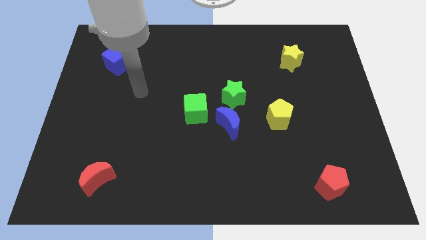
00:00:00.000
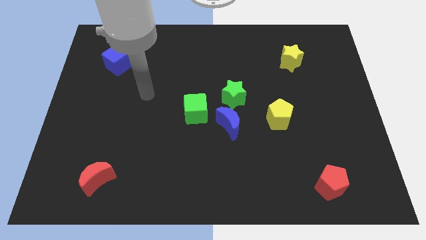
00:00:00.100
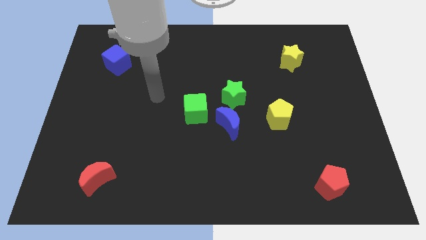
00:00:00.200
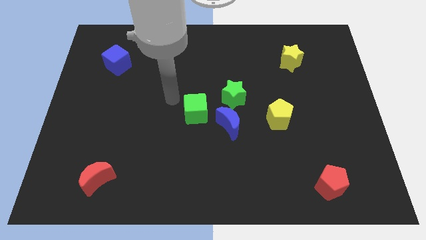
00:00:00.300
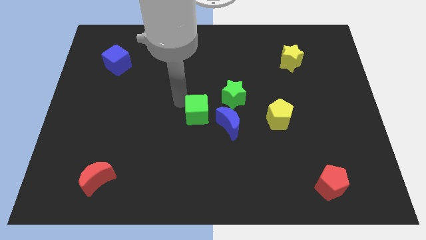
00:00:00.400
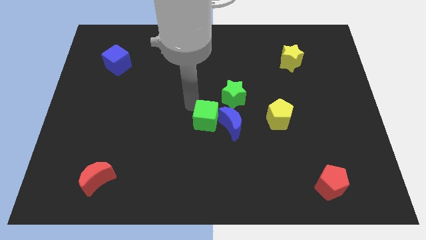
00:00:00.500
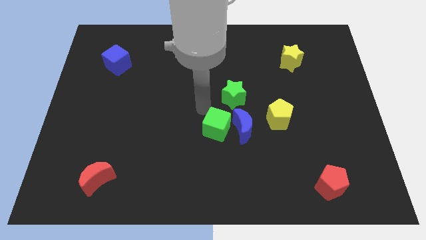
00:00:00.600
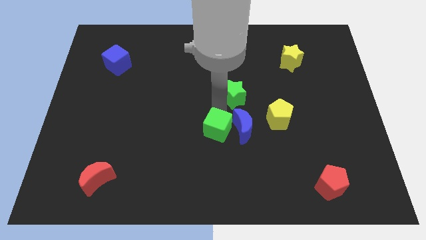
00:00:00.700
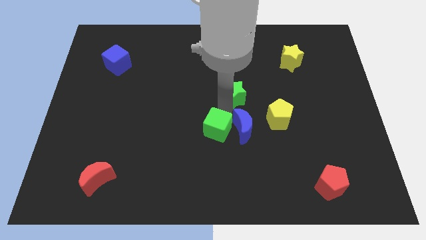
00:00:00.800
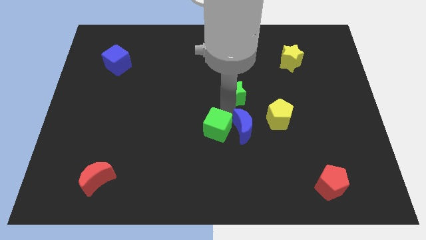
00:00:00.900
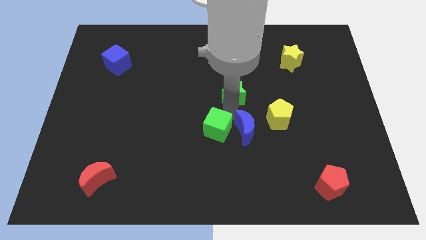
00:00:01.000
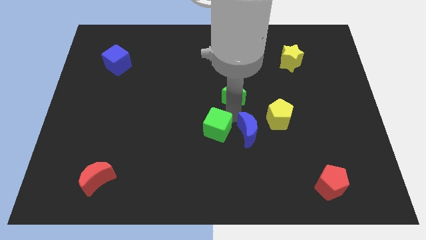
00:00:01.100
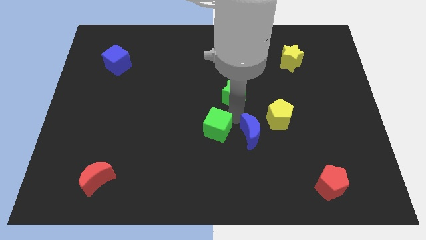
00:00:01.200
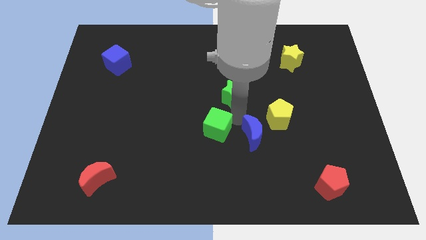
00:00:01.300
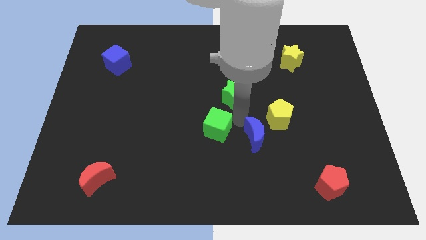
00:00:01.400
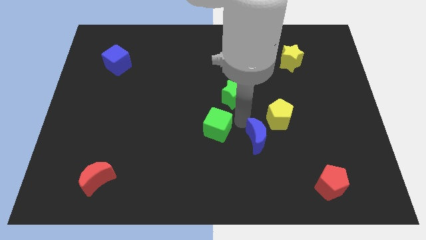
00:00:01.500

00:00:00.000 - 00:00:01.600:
pull the blue moon apart from the green star and green cube

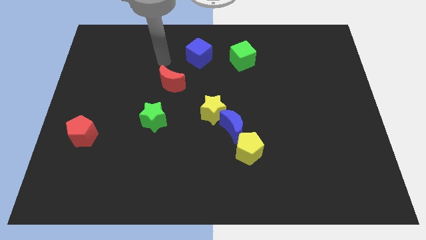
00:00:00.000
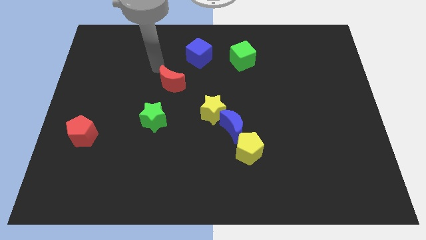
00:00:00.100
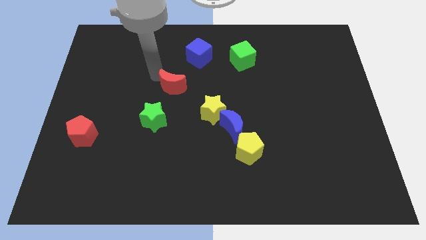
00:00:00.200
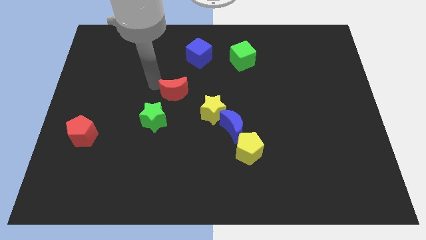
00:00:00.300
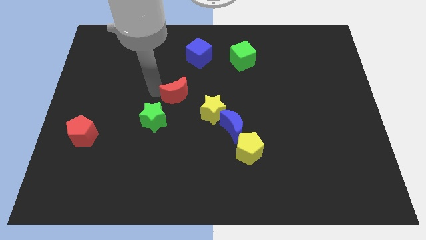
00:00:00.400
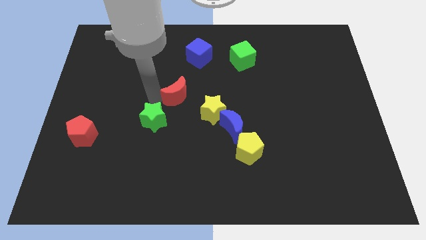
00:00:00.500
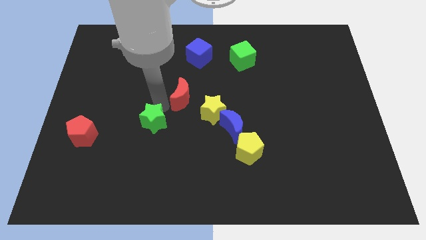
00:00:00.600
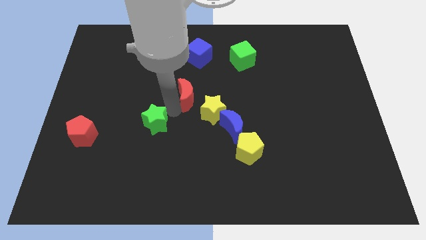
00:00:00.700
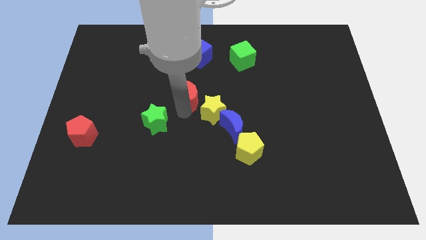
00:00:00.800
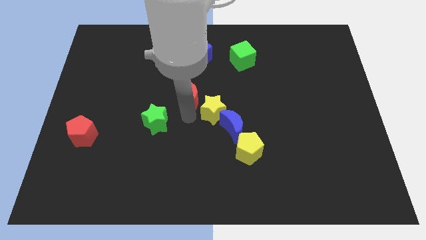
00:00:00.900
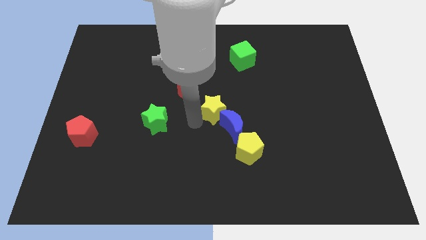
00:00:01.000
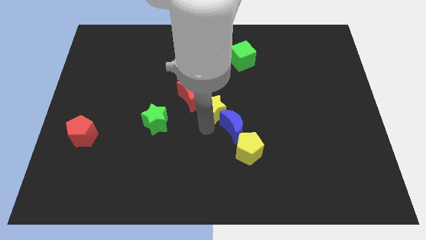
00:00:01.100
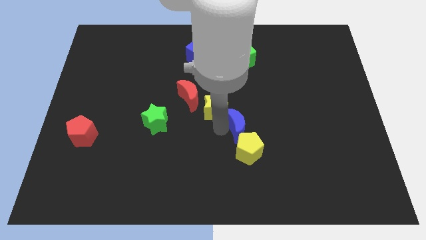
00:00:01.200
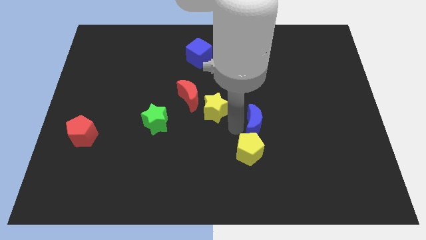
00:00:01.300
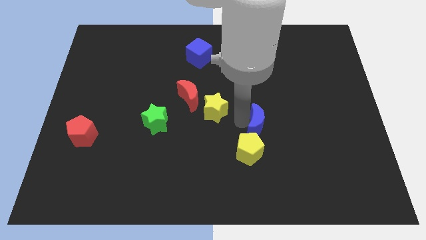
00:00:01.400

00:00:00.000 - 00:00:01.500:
move the yellow star away from the blue moon

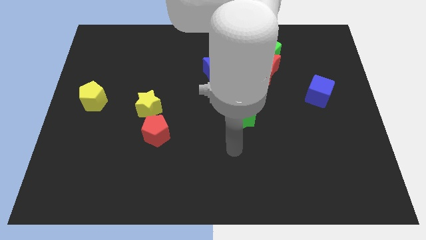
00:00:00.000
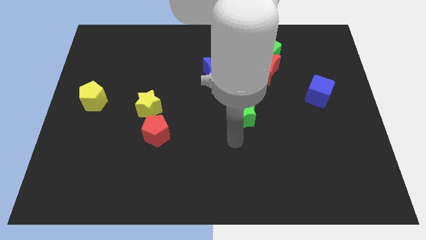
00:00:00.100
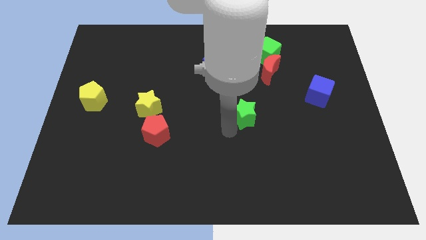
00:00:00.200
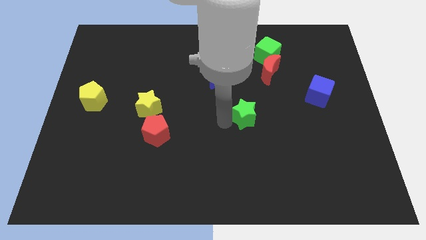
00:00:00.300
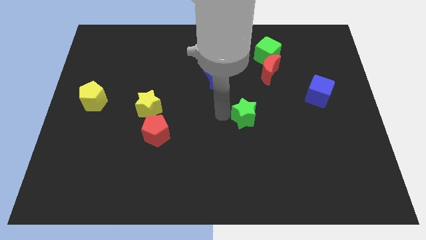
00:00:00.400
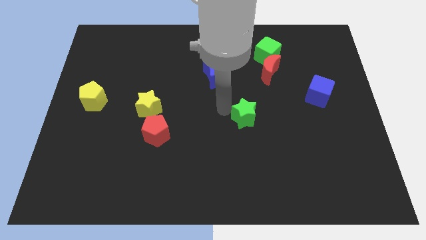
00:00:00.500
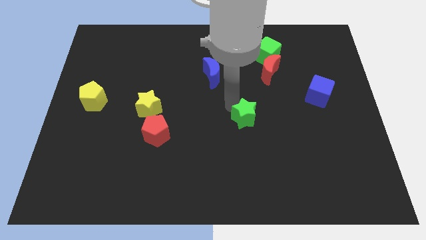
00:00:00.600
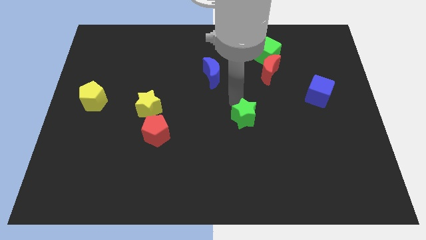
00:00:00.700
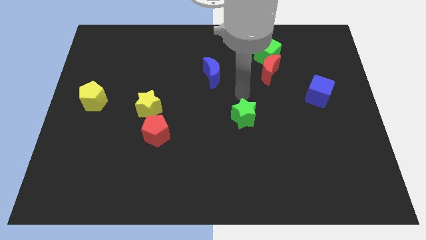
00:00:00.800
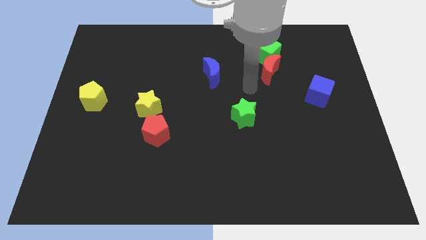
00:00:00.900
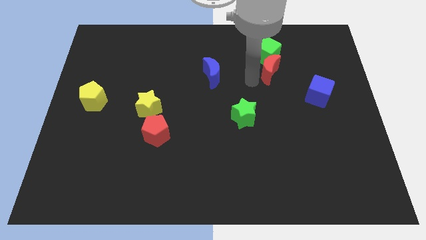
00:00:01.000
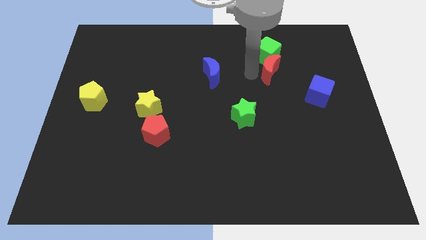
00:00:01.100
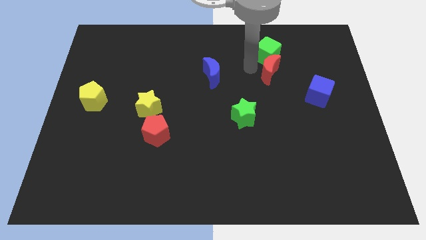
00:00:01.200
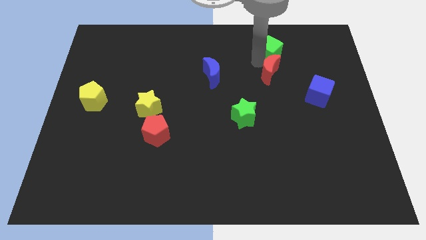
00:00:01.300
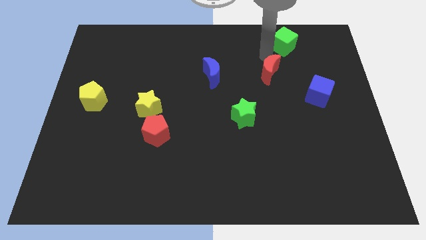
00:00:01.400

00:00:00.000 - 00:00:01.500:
separate the red moon from the green cube

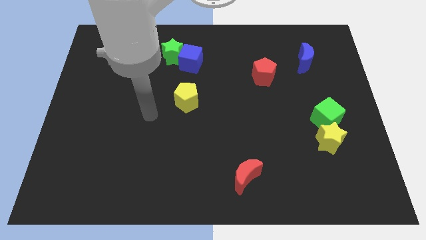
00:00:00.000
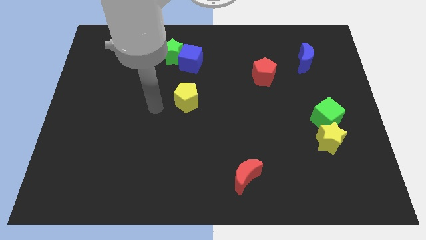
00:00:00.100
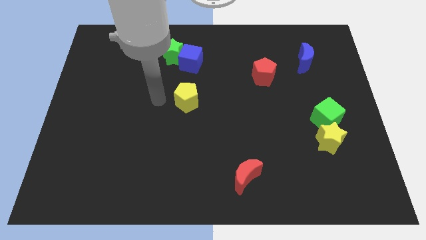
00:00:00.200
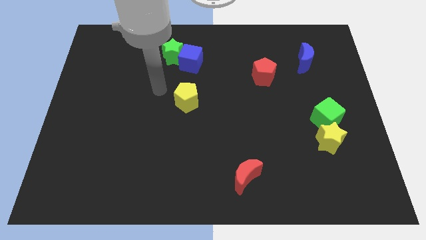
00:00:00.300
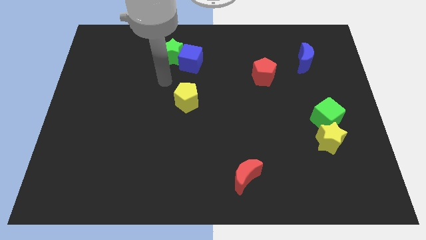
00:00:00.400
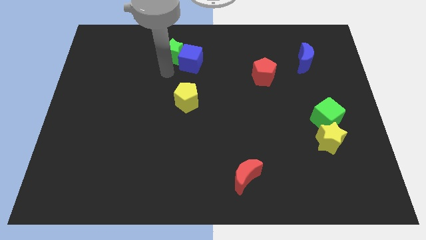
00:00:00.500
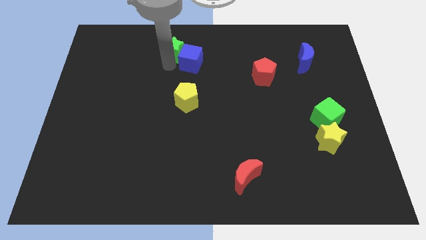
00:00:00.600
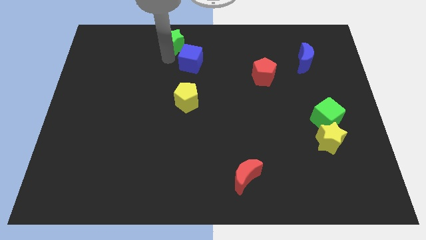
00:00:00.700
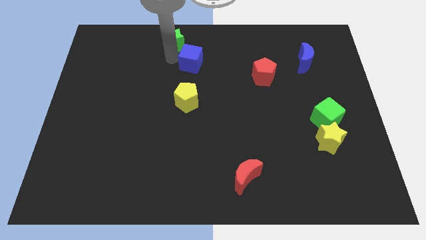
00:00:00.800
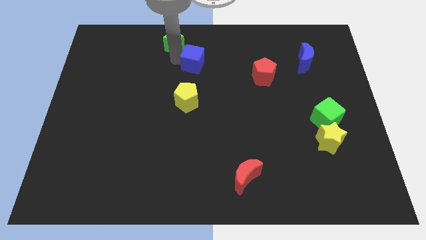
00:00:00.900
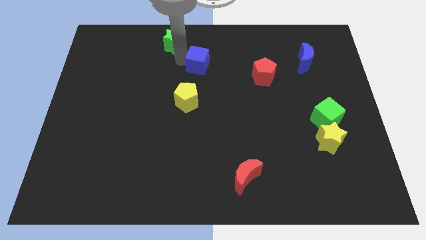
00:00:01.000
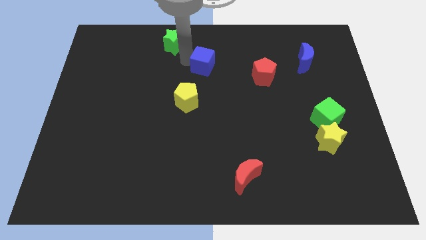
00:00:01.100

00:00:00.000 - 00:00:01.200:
pull the blue cube apart from the green star

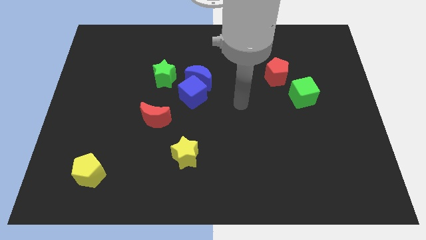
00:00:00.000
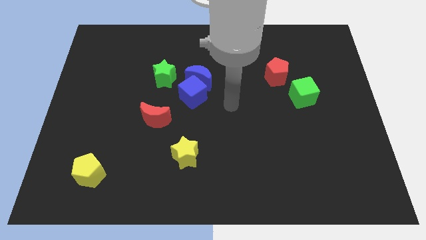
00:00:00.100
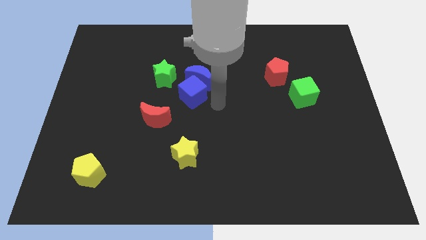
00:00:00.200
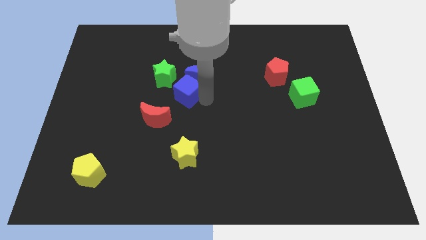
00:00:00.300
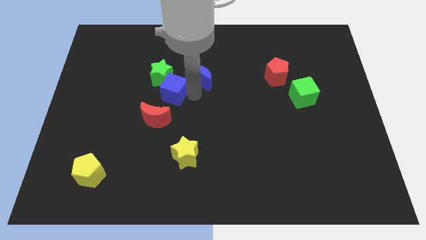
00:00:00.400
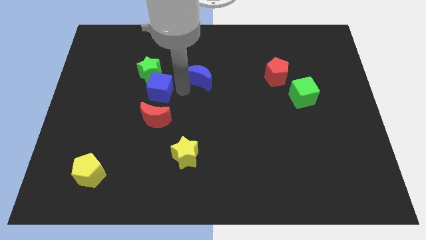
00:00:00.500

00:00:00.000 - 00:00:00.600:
move the blue moon away from the blue cube and green star

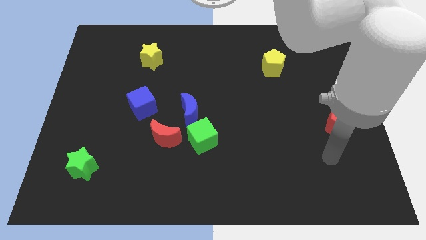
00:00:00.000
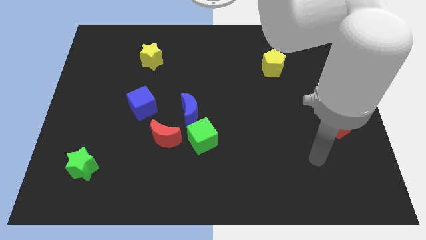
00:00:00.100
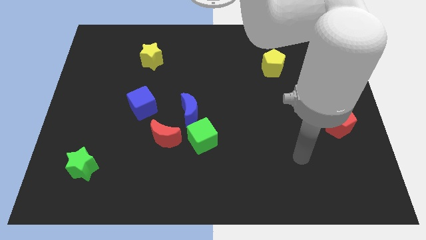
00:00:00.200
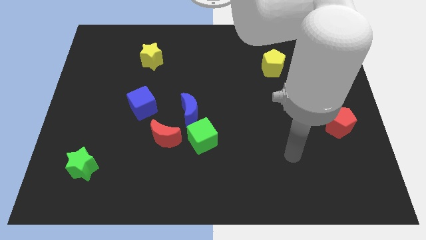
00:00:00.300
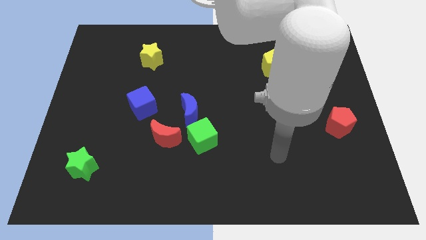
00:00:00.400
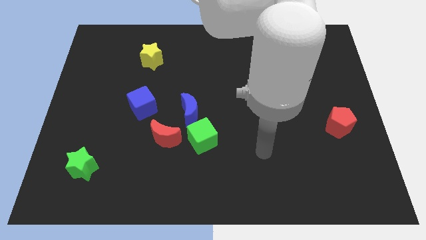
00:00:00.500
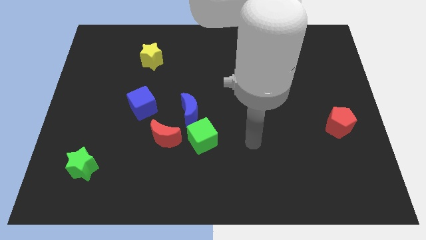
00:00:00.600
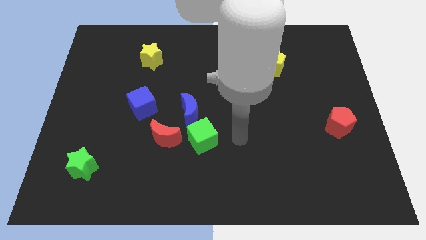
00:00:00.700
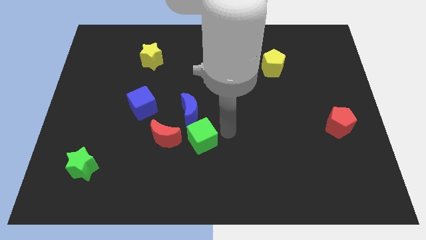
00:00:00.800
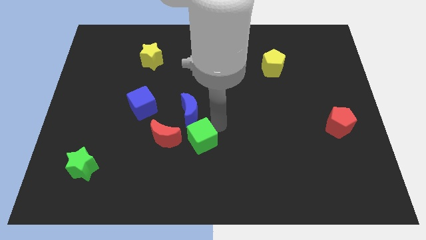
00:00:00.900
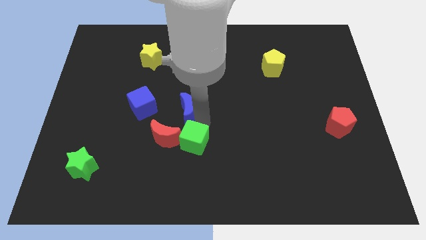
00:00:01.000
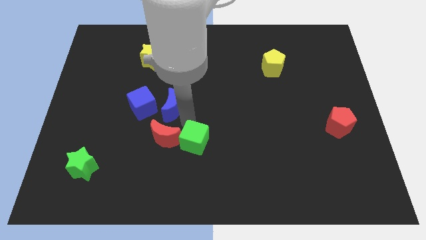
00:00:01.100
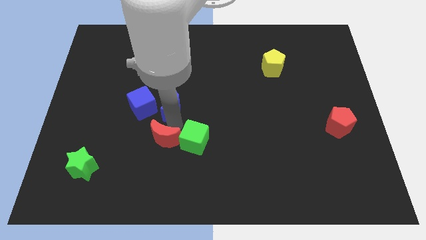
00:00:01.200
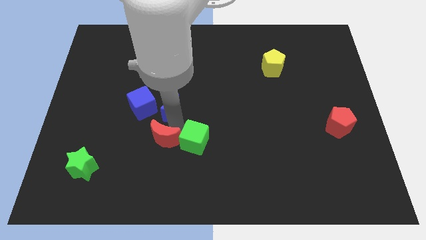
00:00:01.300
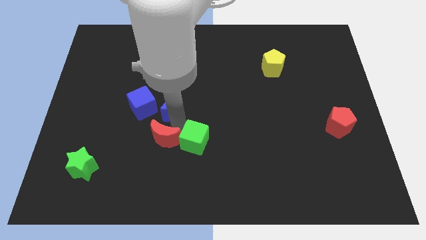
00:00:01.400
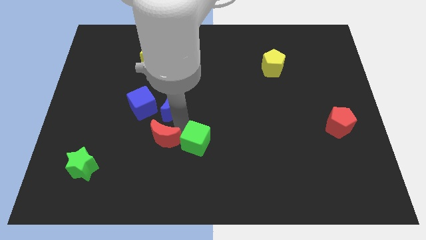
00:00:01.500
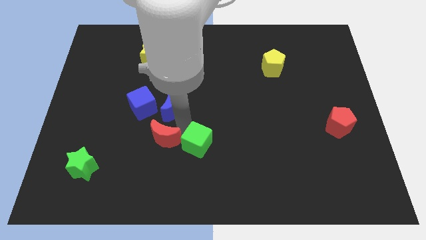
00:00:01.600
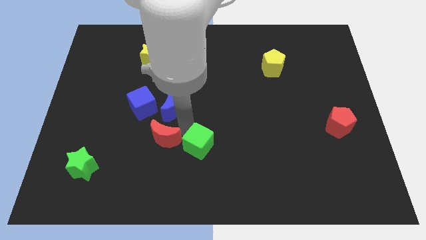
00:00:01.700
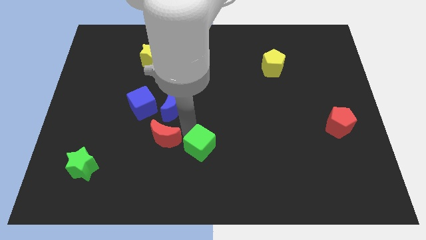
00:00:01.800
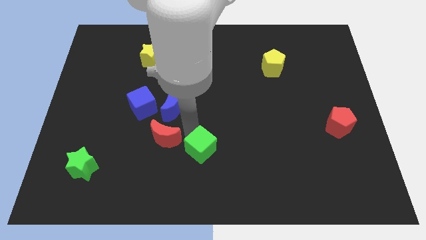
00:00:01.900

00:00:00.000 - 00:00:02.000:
pull the green cube apart from the blue moon and red moon

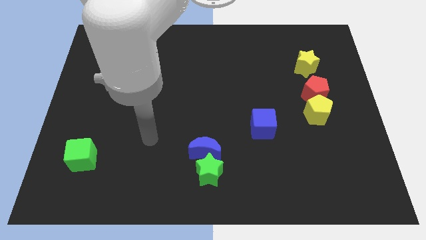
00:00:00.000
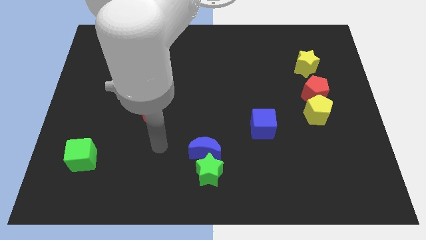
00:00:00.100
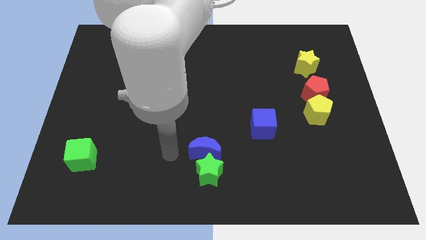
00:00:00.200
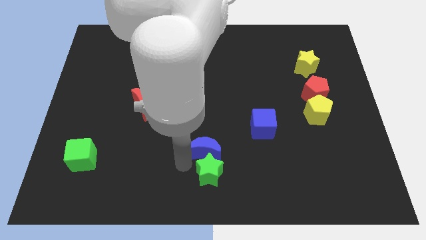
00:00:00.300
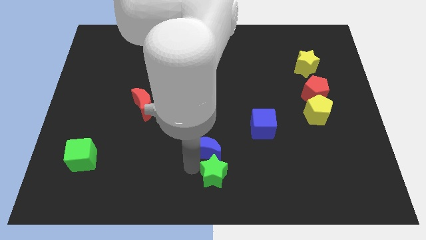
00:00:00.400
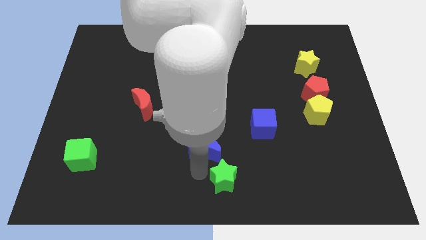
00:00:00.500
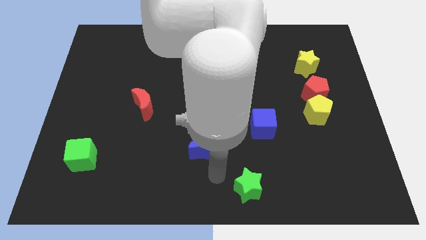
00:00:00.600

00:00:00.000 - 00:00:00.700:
separate the blue moon from the green star
